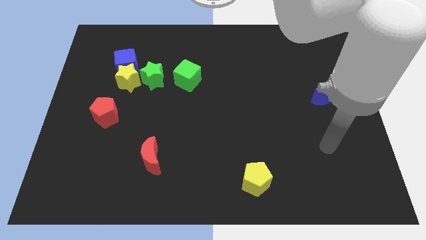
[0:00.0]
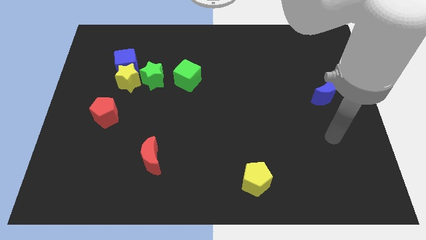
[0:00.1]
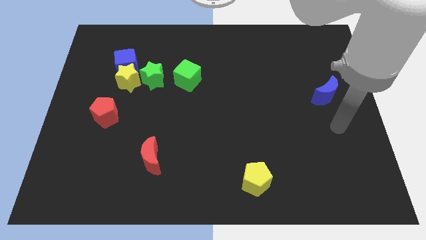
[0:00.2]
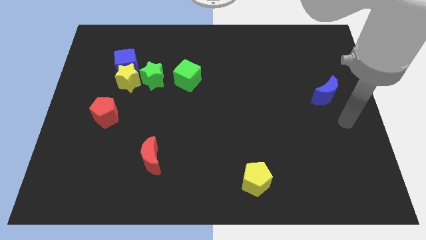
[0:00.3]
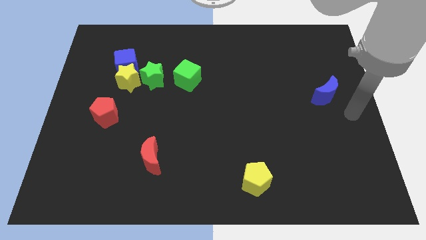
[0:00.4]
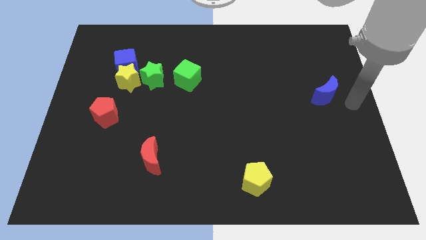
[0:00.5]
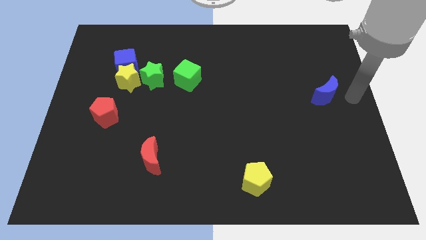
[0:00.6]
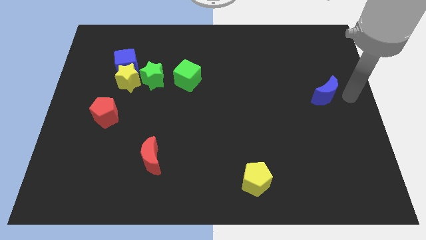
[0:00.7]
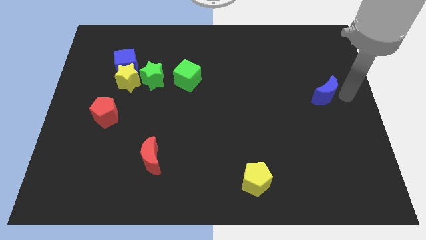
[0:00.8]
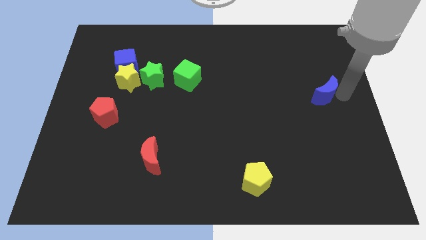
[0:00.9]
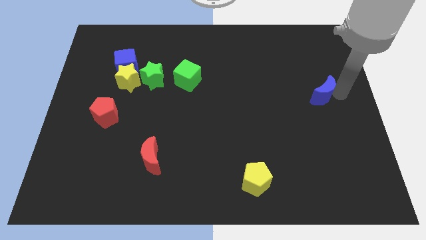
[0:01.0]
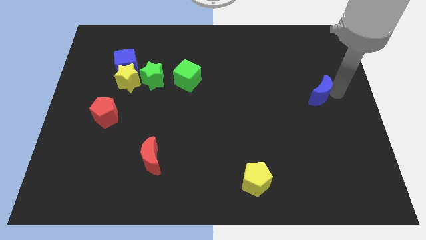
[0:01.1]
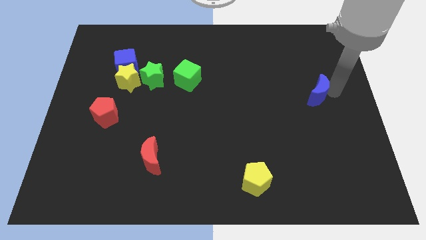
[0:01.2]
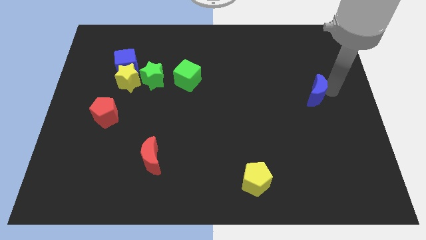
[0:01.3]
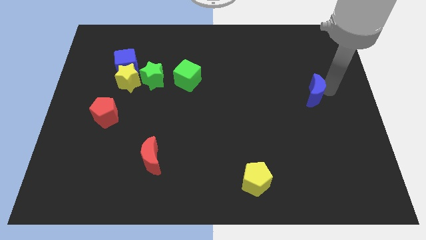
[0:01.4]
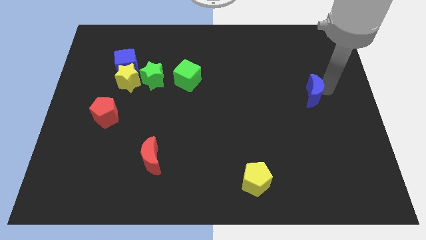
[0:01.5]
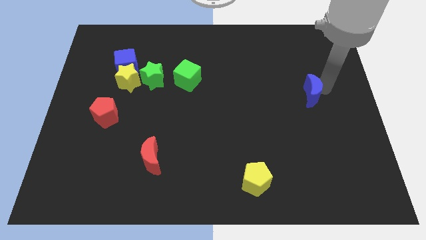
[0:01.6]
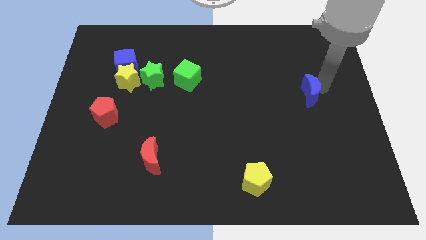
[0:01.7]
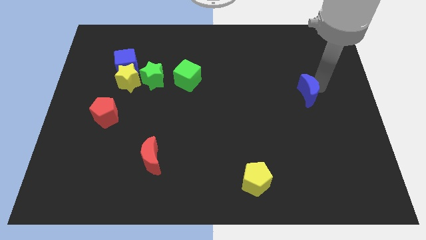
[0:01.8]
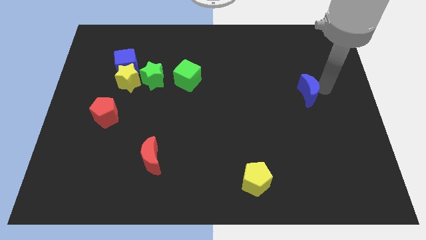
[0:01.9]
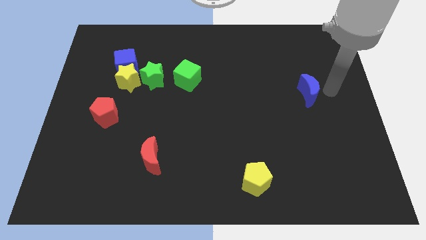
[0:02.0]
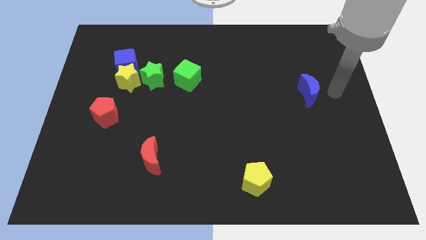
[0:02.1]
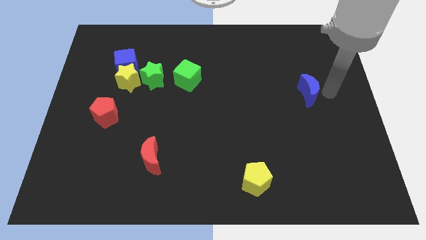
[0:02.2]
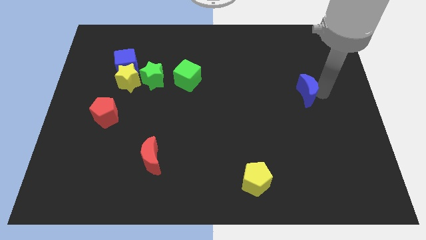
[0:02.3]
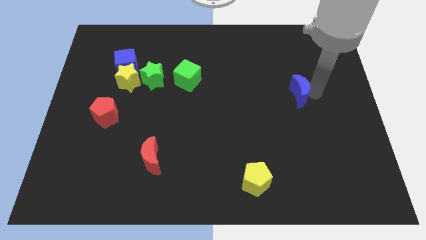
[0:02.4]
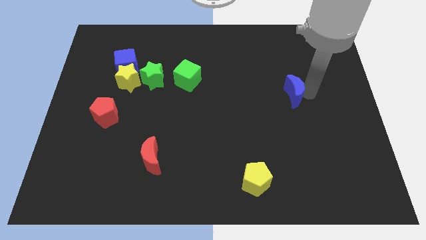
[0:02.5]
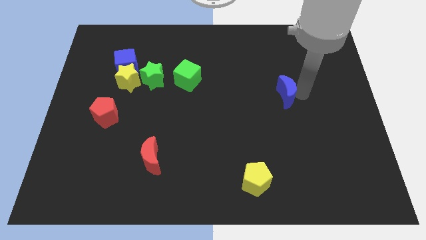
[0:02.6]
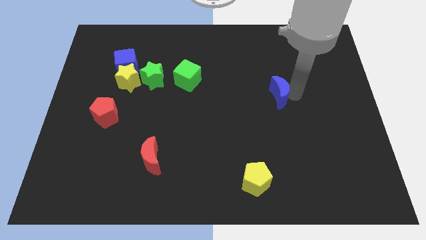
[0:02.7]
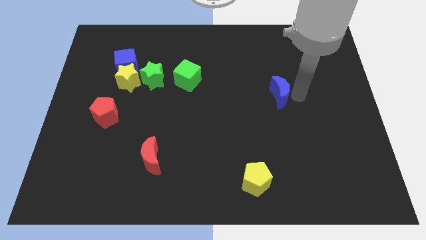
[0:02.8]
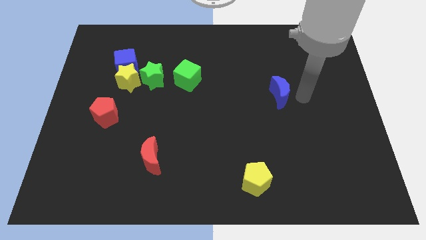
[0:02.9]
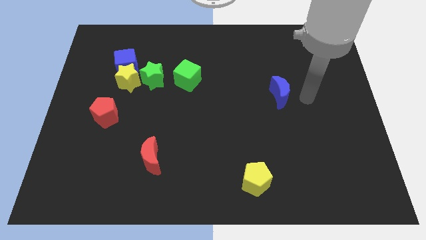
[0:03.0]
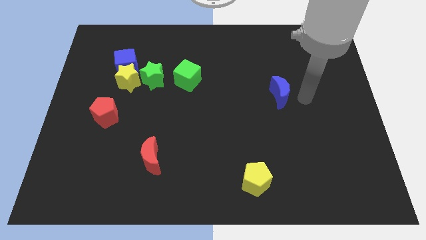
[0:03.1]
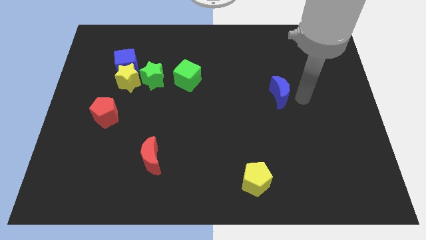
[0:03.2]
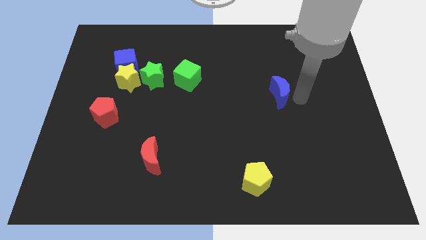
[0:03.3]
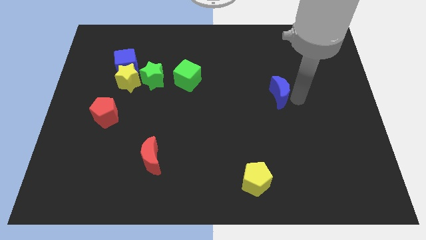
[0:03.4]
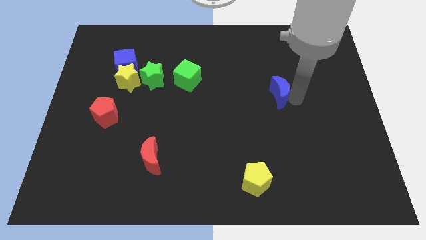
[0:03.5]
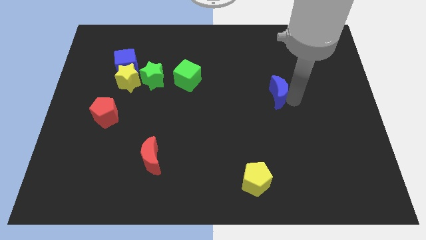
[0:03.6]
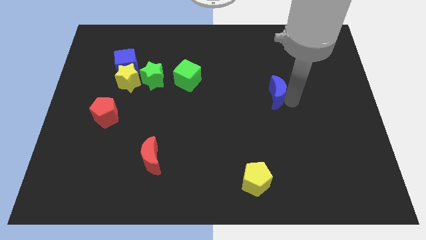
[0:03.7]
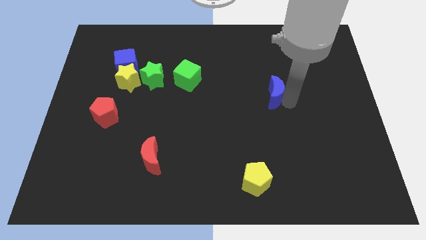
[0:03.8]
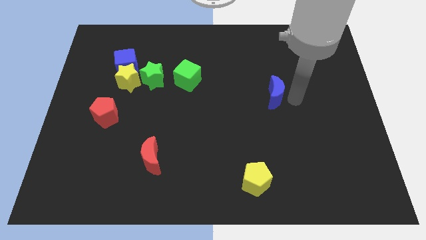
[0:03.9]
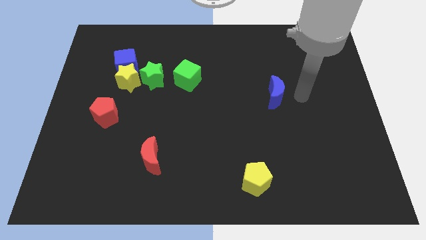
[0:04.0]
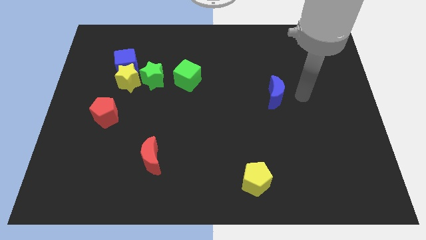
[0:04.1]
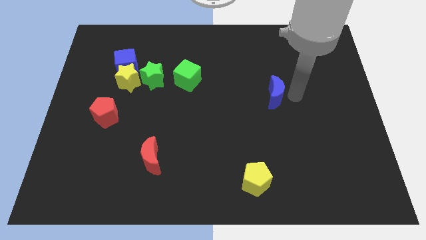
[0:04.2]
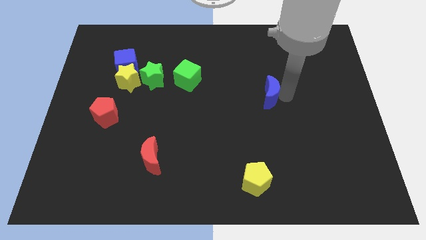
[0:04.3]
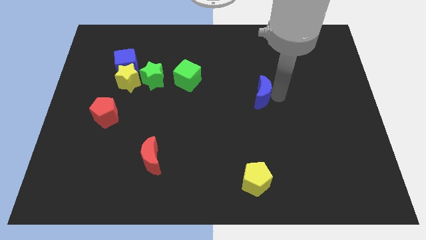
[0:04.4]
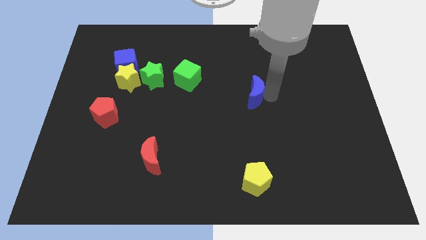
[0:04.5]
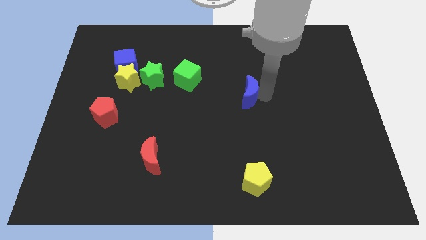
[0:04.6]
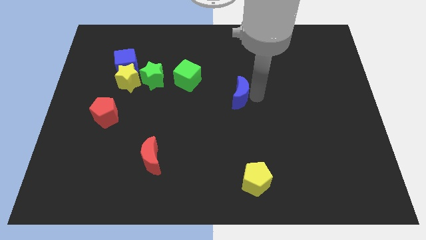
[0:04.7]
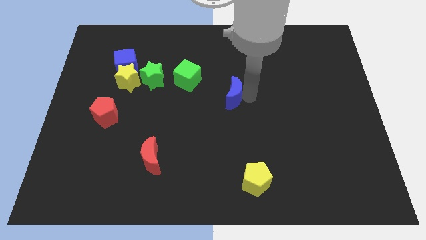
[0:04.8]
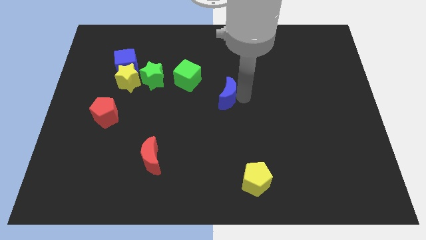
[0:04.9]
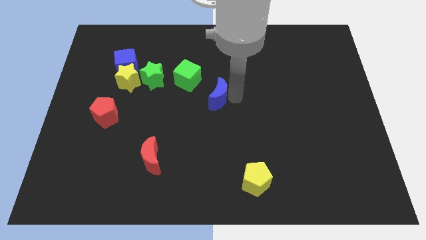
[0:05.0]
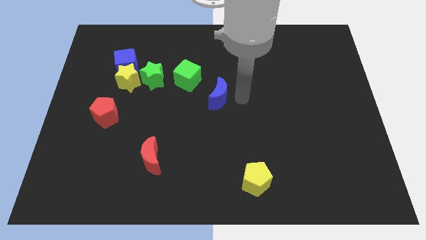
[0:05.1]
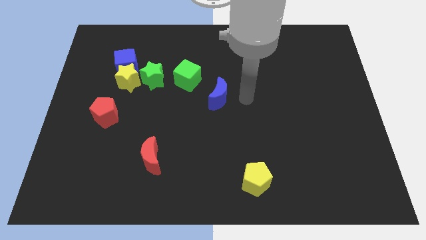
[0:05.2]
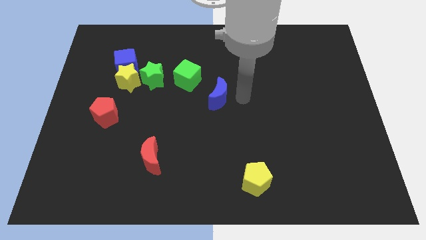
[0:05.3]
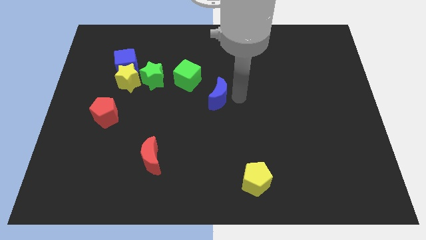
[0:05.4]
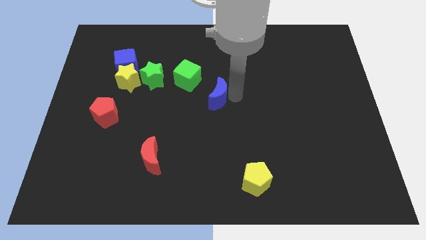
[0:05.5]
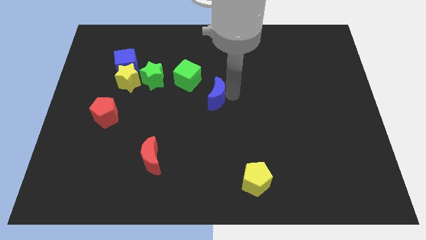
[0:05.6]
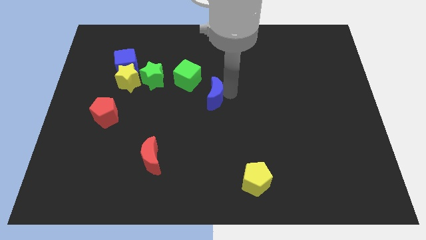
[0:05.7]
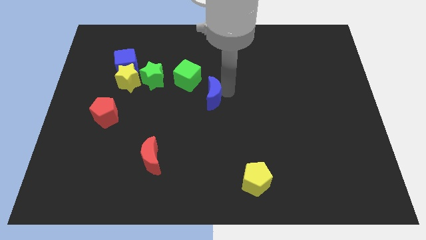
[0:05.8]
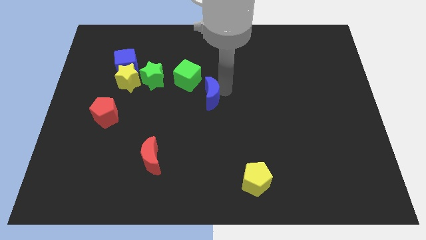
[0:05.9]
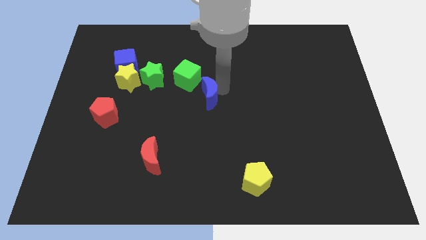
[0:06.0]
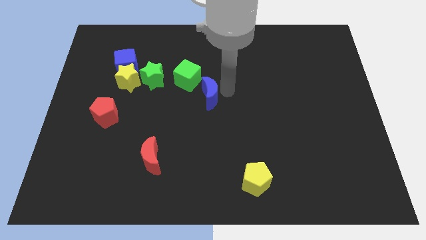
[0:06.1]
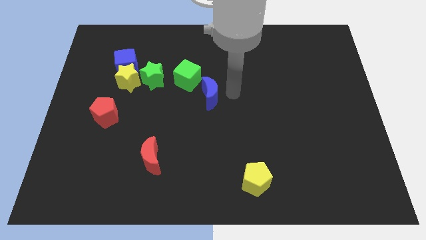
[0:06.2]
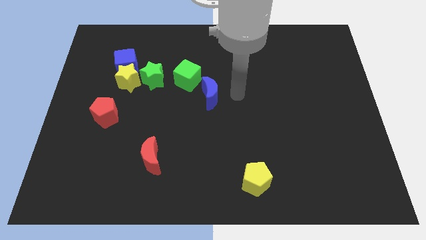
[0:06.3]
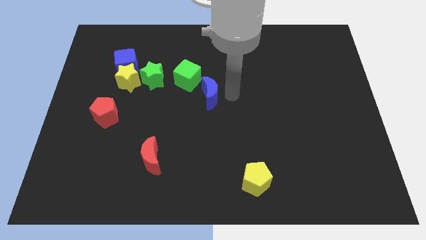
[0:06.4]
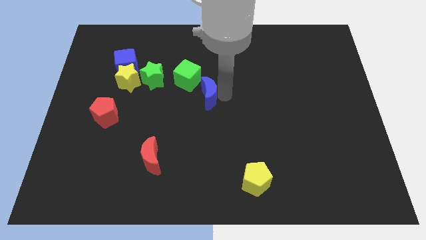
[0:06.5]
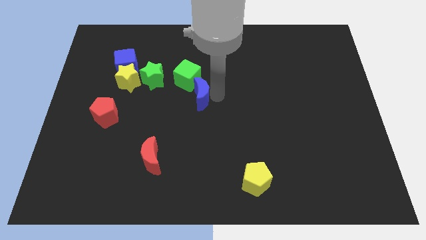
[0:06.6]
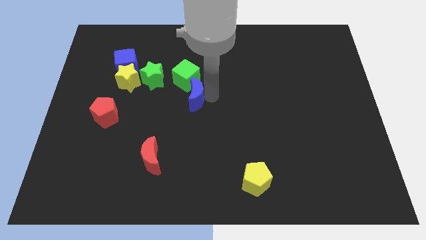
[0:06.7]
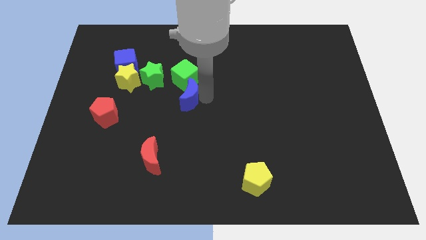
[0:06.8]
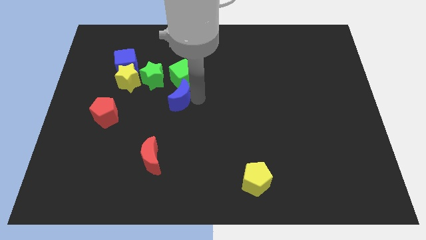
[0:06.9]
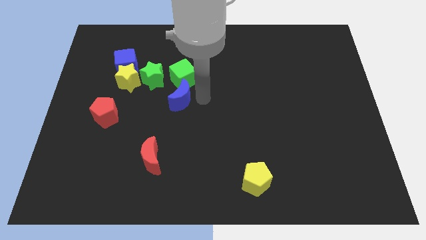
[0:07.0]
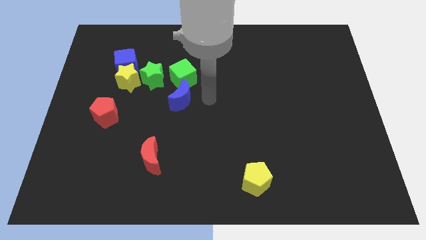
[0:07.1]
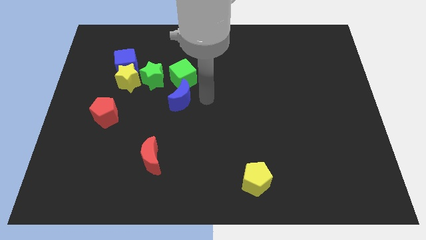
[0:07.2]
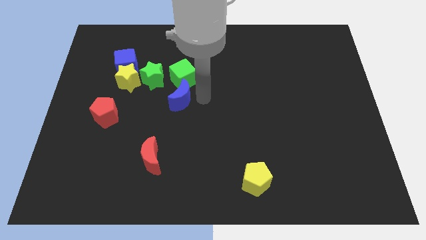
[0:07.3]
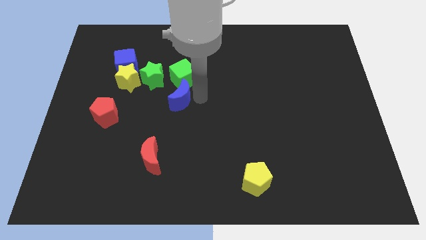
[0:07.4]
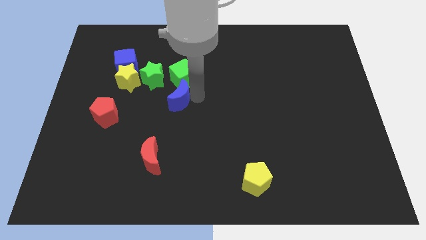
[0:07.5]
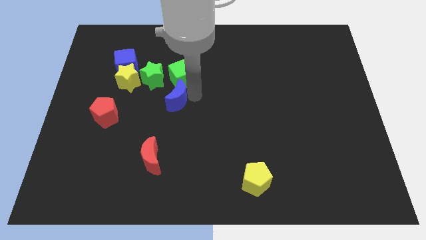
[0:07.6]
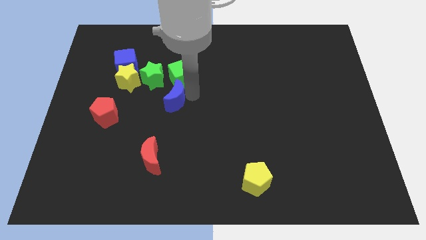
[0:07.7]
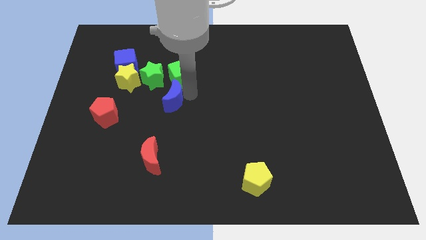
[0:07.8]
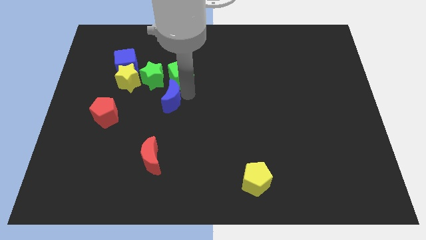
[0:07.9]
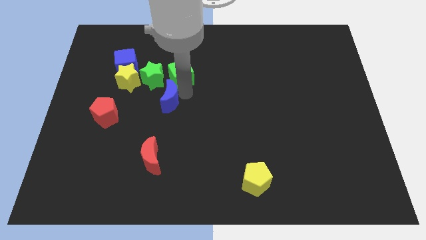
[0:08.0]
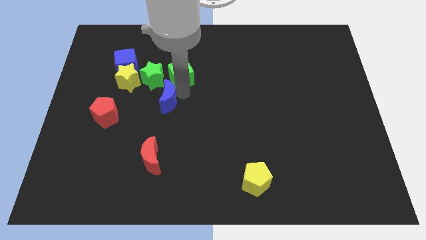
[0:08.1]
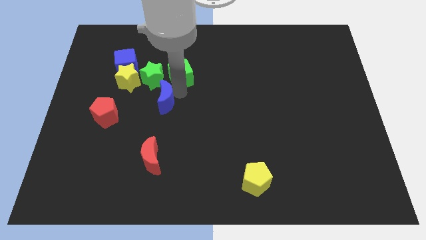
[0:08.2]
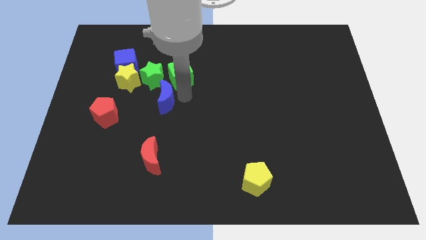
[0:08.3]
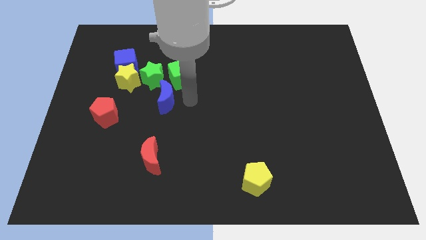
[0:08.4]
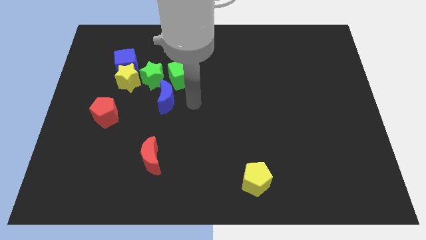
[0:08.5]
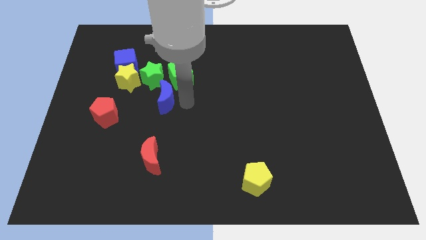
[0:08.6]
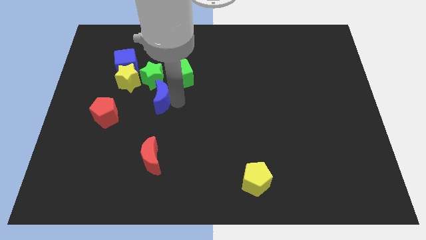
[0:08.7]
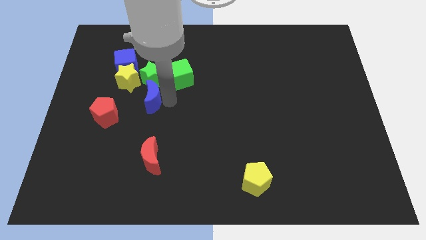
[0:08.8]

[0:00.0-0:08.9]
move the blue moon to the bottom left side of the green star
